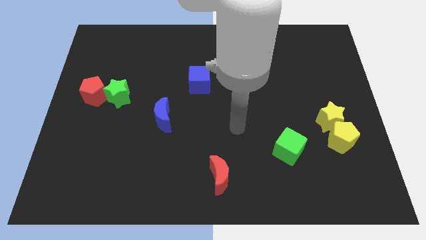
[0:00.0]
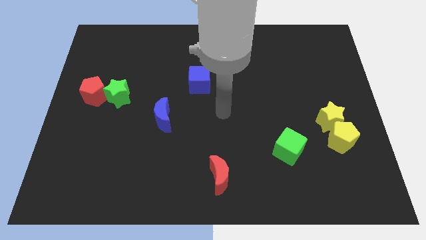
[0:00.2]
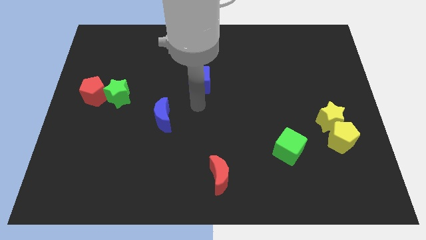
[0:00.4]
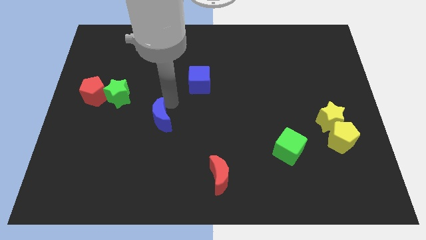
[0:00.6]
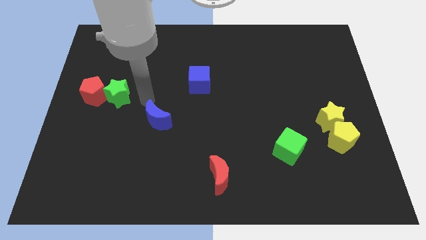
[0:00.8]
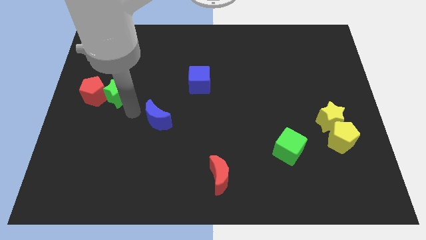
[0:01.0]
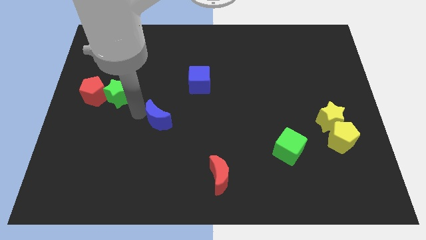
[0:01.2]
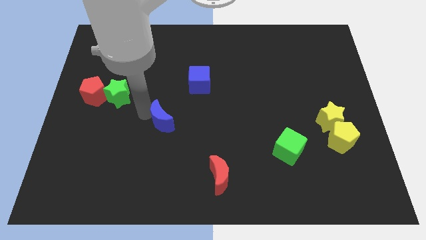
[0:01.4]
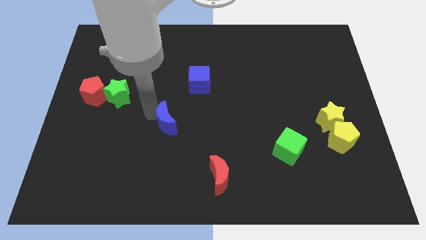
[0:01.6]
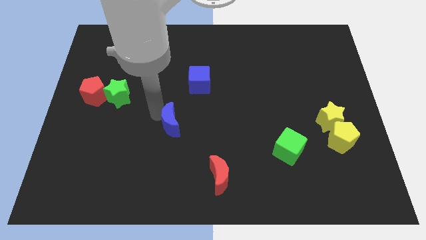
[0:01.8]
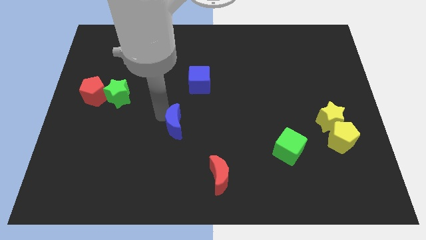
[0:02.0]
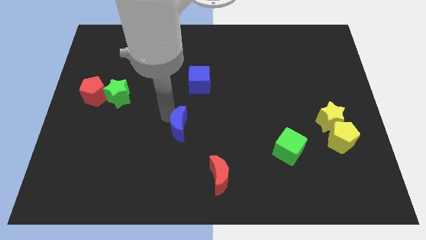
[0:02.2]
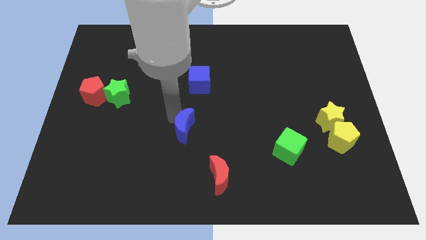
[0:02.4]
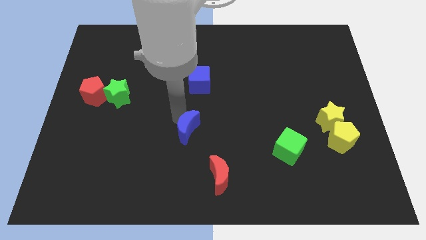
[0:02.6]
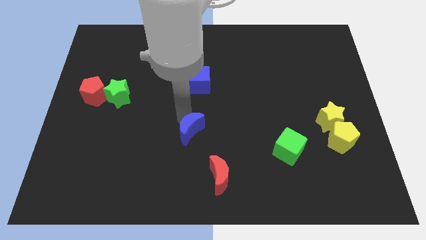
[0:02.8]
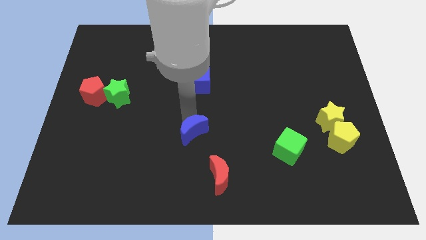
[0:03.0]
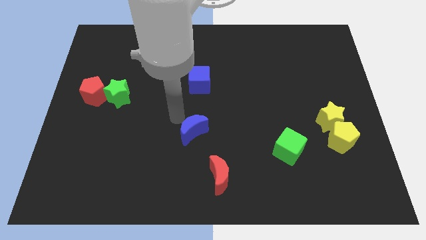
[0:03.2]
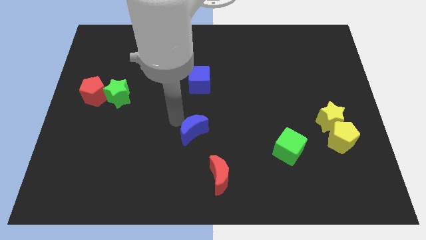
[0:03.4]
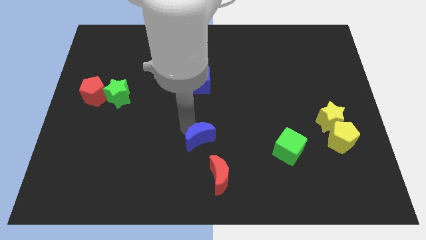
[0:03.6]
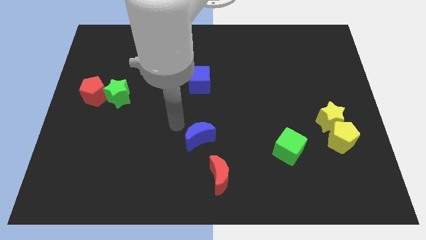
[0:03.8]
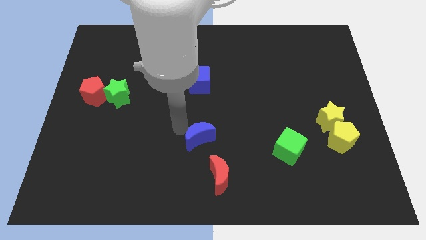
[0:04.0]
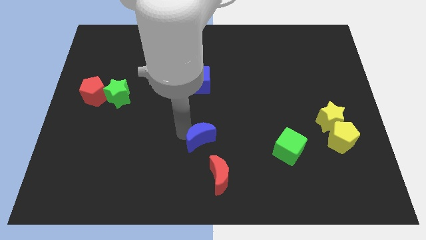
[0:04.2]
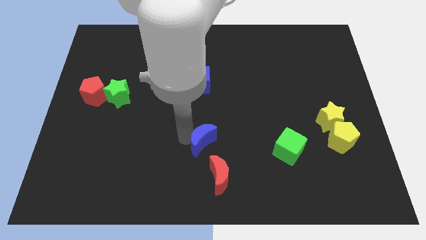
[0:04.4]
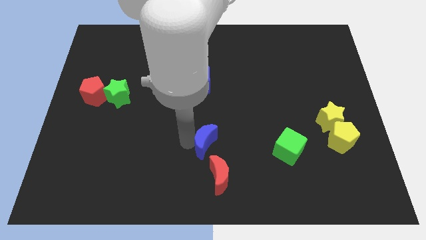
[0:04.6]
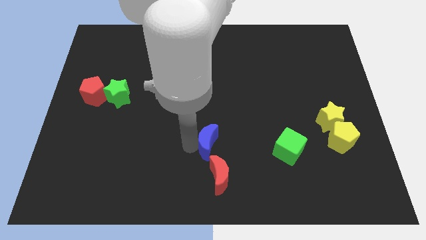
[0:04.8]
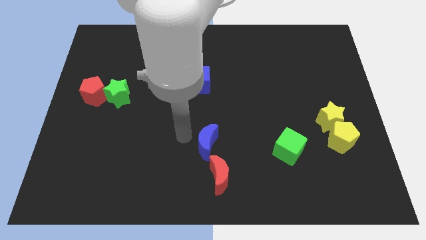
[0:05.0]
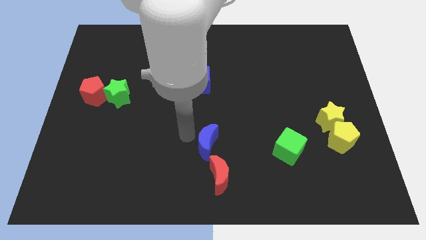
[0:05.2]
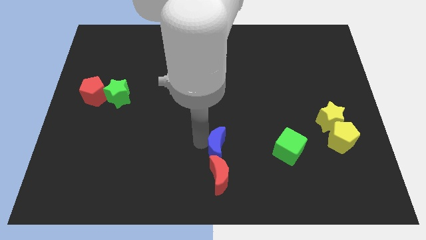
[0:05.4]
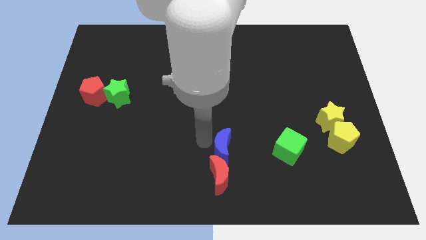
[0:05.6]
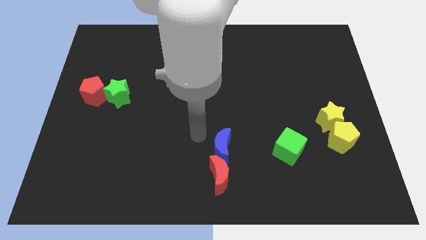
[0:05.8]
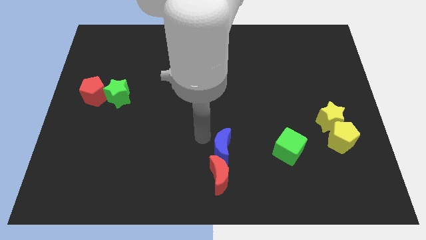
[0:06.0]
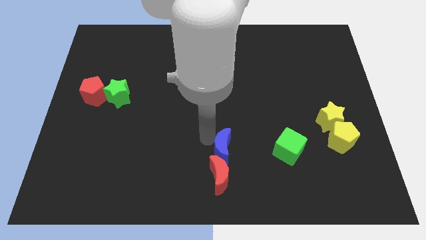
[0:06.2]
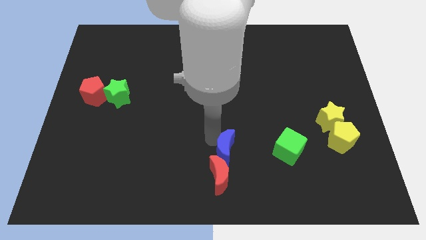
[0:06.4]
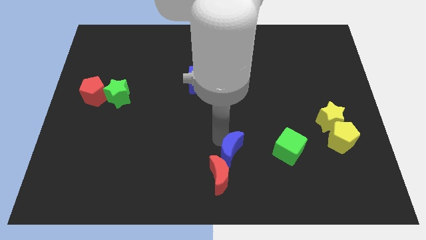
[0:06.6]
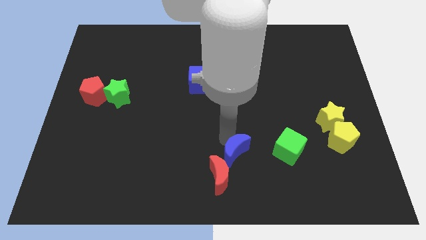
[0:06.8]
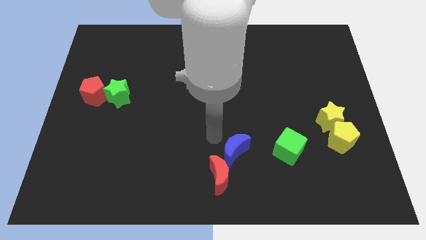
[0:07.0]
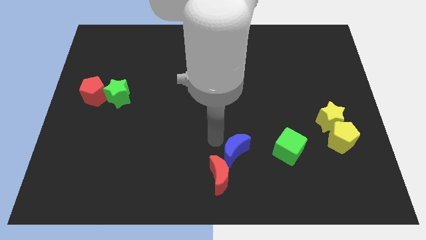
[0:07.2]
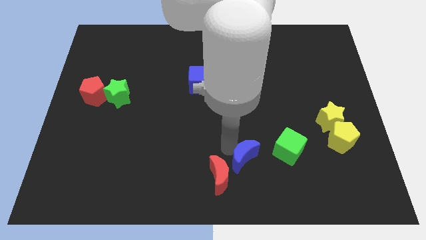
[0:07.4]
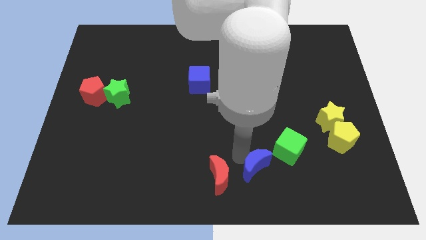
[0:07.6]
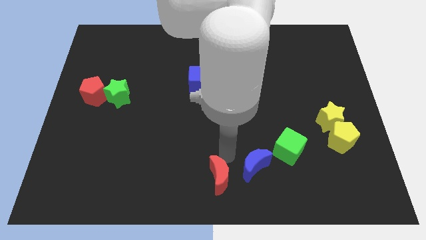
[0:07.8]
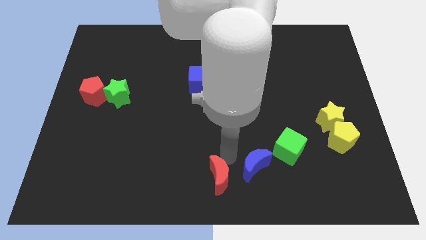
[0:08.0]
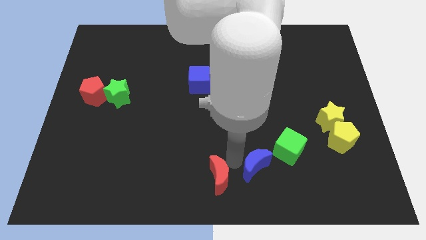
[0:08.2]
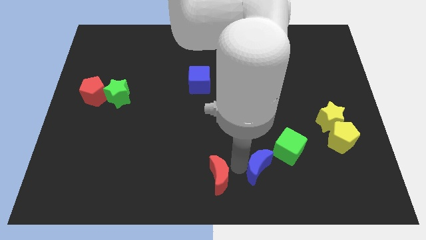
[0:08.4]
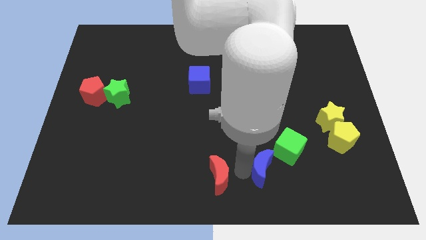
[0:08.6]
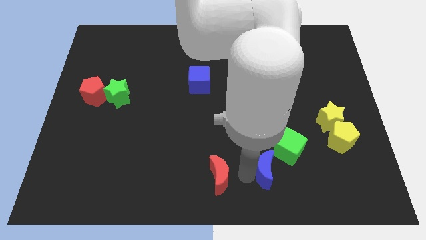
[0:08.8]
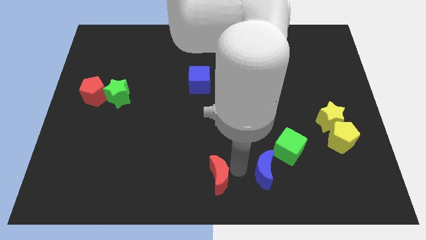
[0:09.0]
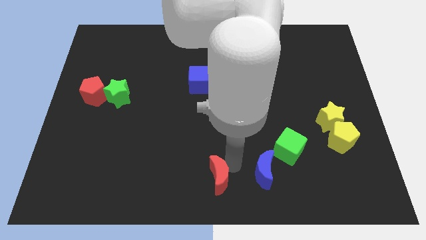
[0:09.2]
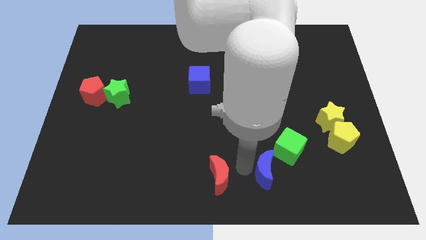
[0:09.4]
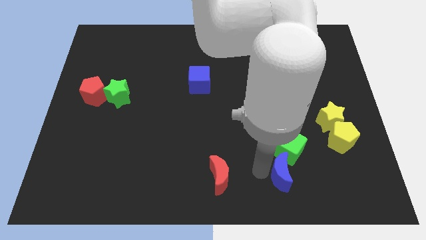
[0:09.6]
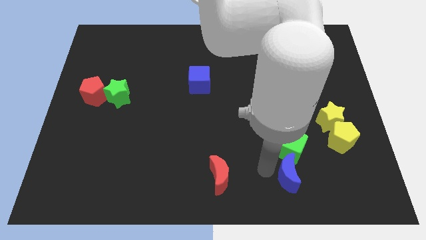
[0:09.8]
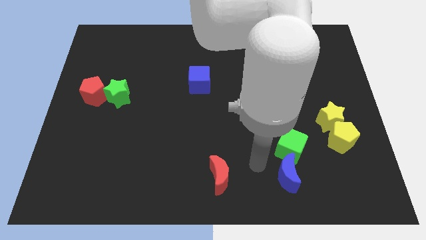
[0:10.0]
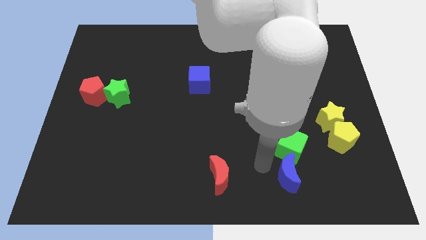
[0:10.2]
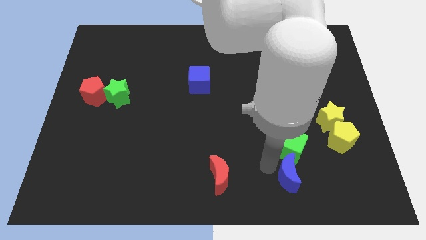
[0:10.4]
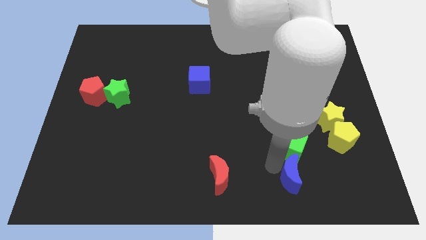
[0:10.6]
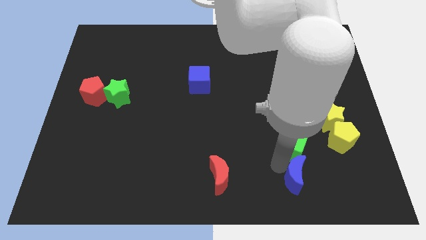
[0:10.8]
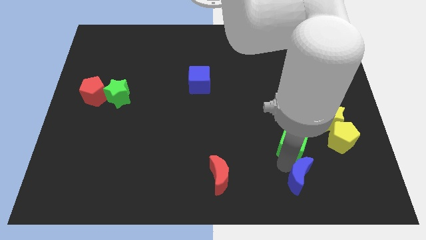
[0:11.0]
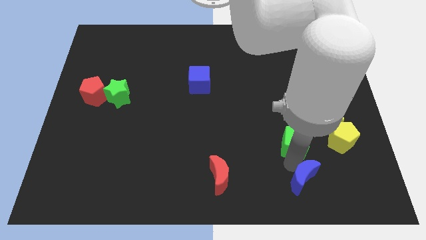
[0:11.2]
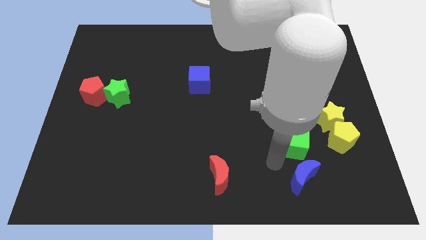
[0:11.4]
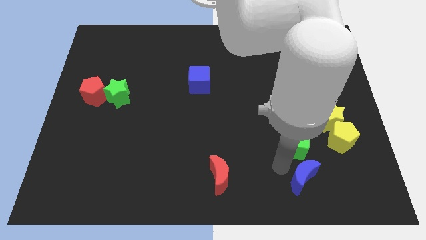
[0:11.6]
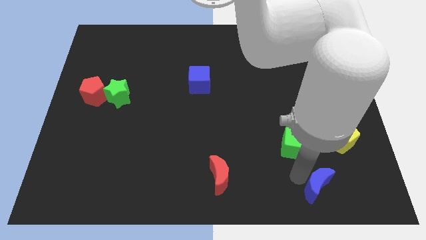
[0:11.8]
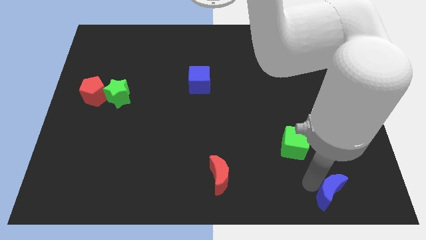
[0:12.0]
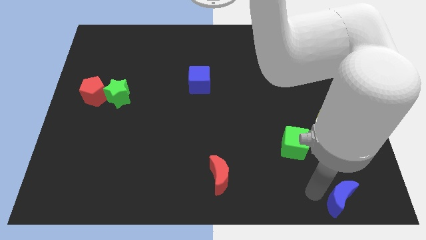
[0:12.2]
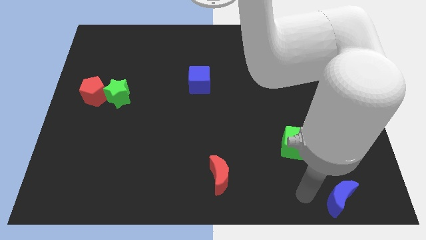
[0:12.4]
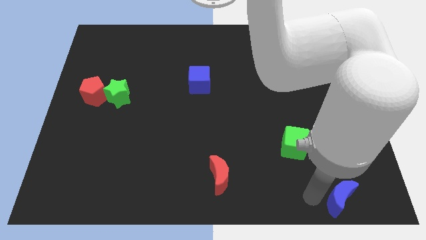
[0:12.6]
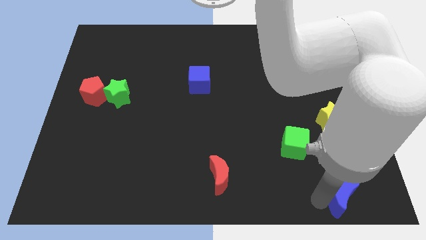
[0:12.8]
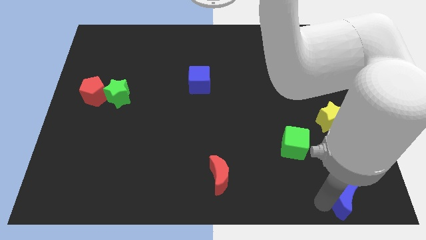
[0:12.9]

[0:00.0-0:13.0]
move the blue moon to the bottom right
